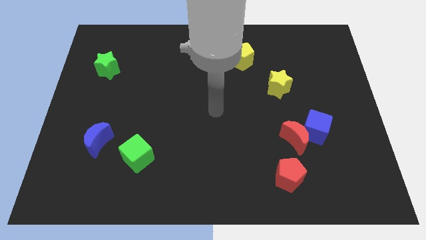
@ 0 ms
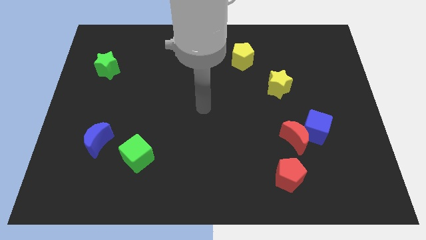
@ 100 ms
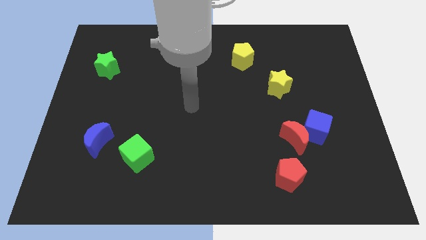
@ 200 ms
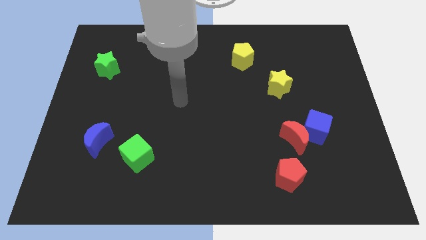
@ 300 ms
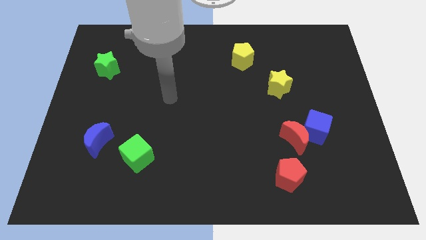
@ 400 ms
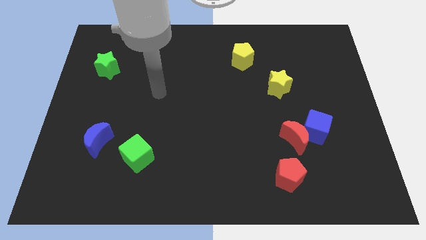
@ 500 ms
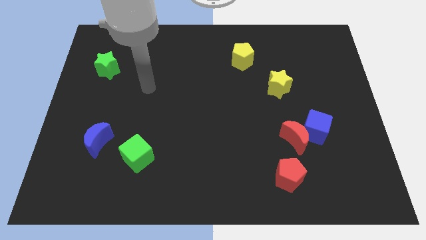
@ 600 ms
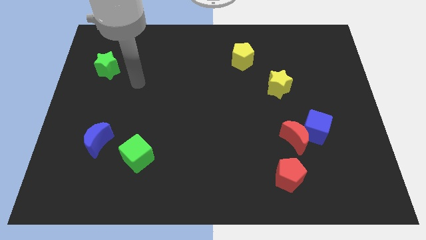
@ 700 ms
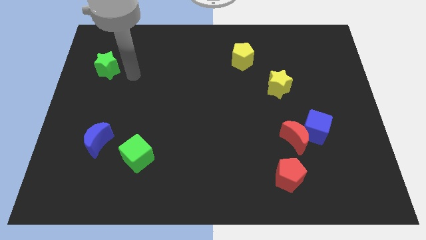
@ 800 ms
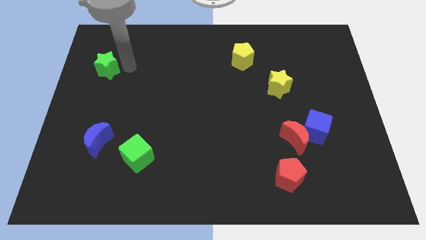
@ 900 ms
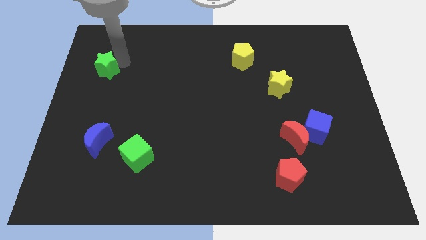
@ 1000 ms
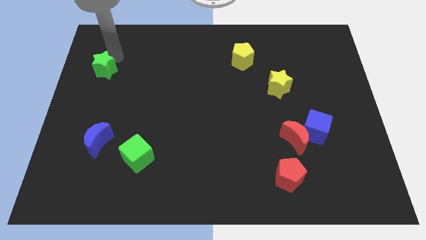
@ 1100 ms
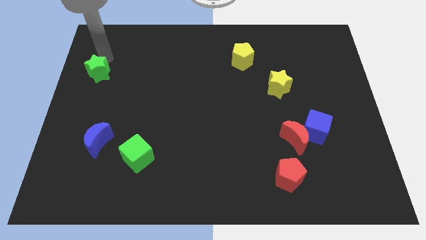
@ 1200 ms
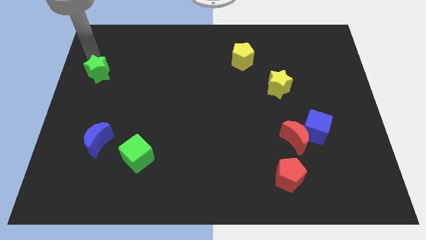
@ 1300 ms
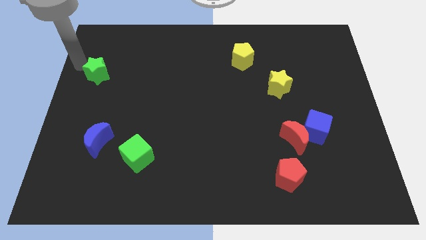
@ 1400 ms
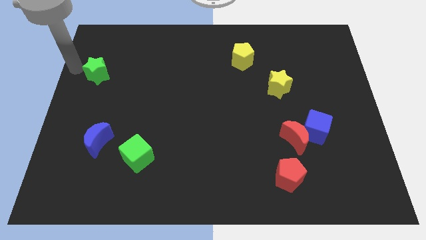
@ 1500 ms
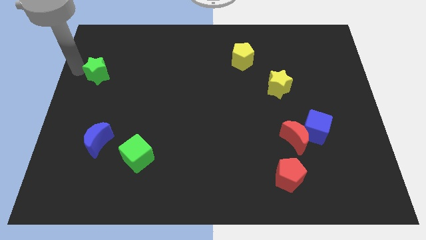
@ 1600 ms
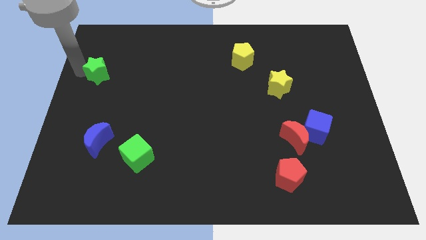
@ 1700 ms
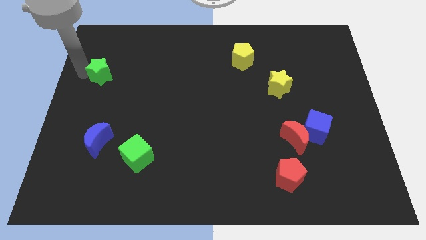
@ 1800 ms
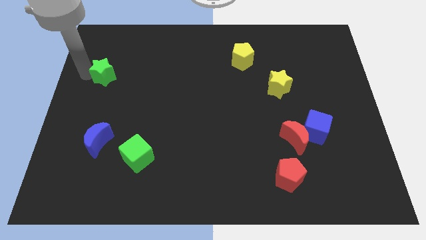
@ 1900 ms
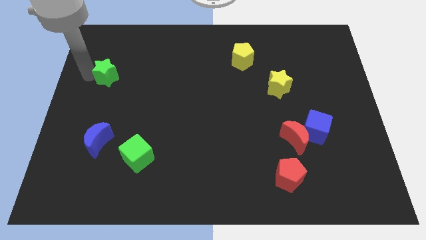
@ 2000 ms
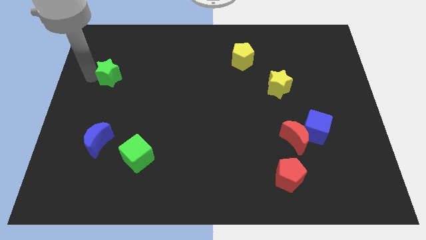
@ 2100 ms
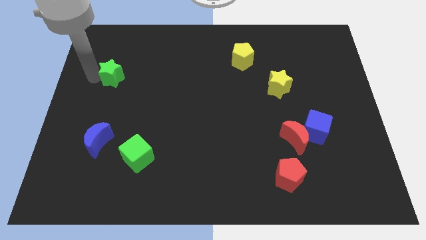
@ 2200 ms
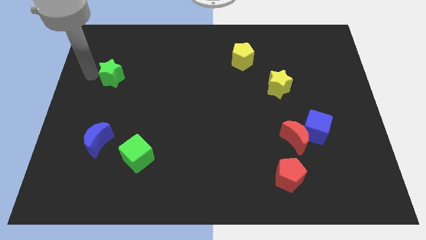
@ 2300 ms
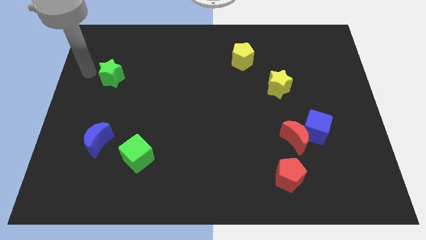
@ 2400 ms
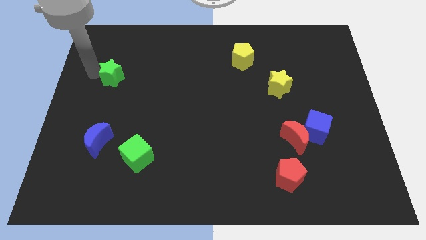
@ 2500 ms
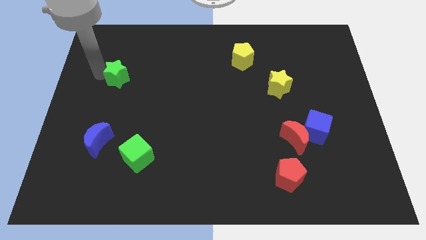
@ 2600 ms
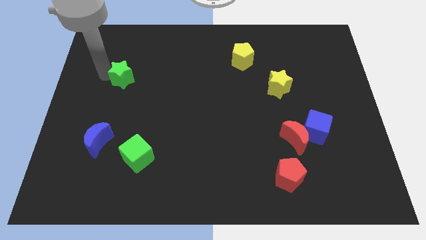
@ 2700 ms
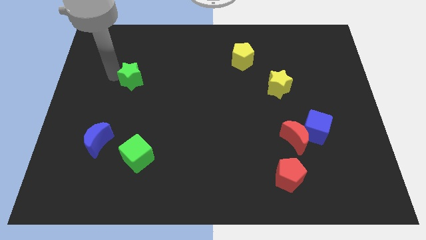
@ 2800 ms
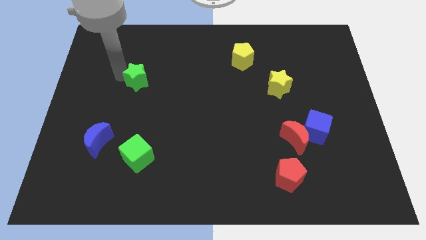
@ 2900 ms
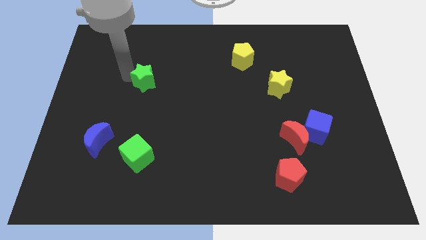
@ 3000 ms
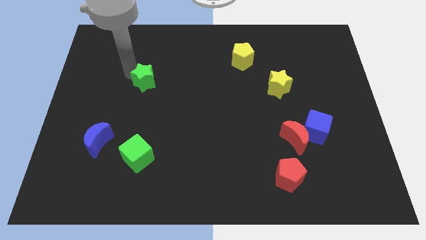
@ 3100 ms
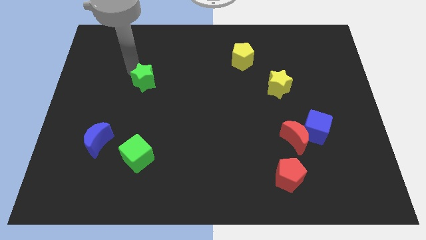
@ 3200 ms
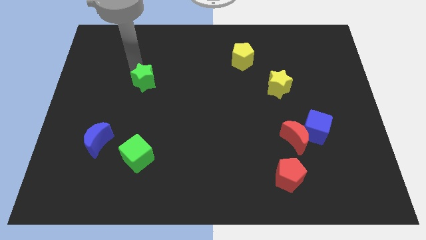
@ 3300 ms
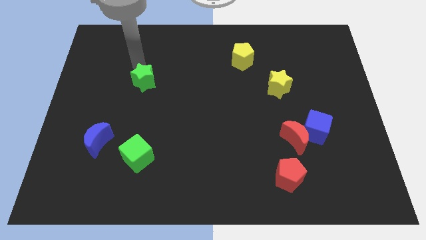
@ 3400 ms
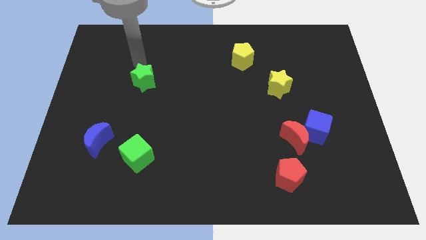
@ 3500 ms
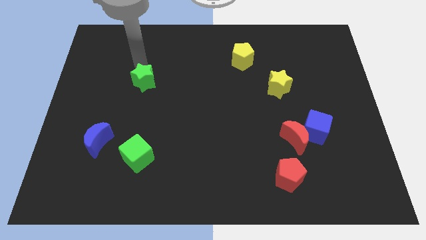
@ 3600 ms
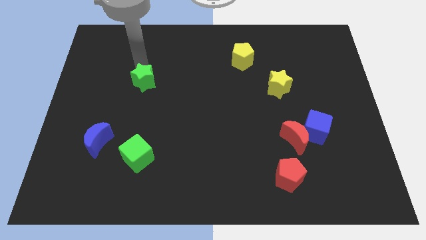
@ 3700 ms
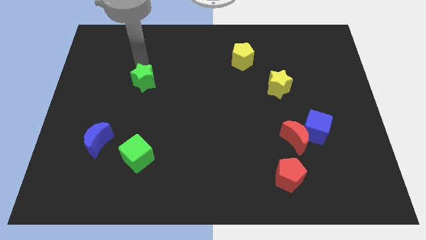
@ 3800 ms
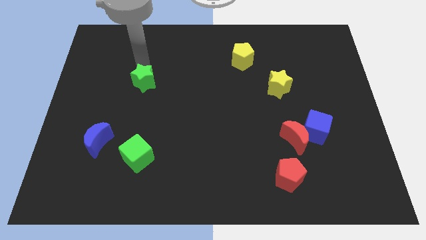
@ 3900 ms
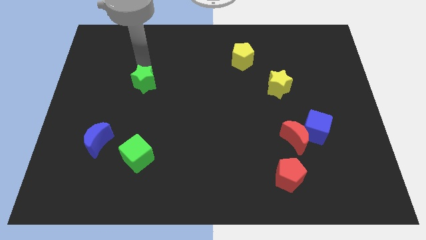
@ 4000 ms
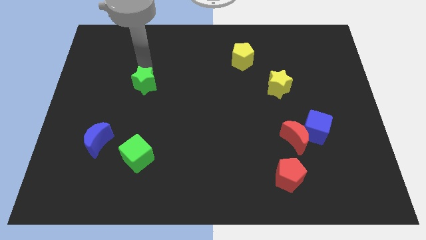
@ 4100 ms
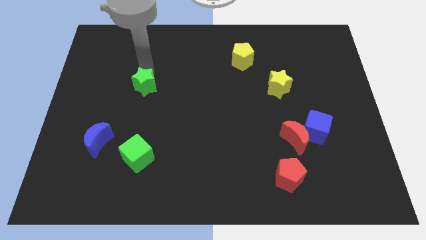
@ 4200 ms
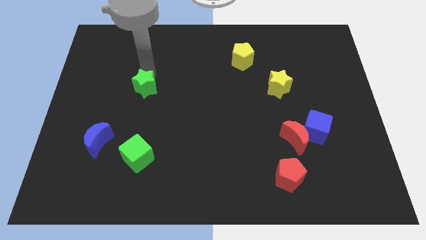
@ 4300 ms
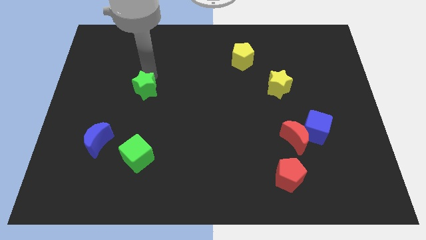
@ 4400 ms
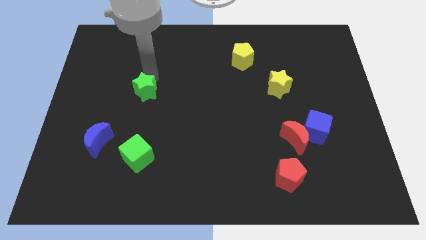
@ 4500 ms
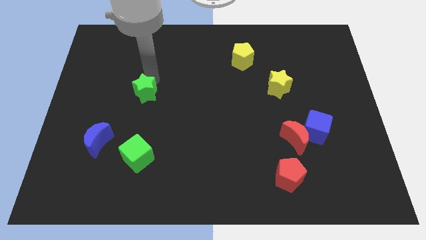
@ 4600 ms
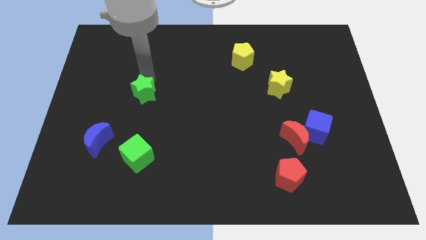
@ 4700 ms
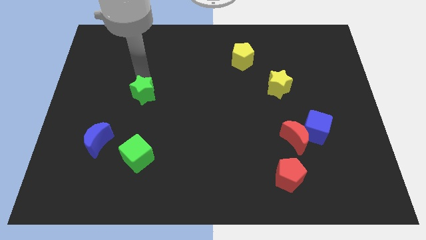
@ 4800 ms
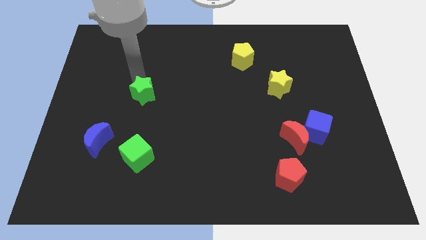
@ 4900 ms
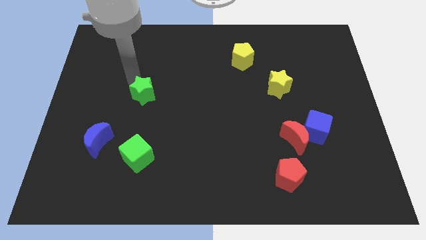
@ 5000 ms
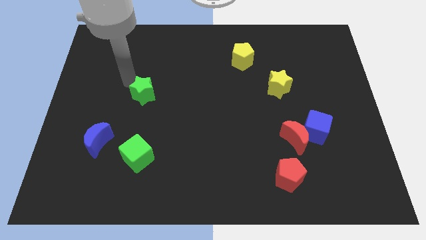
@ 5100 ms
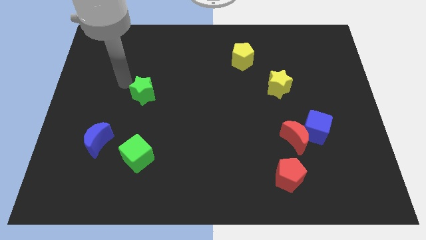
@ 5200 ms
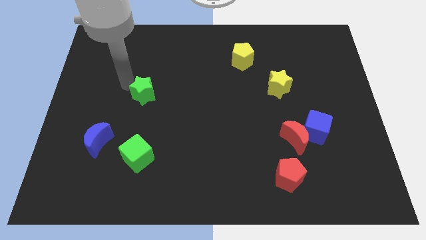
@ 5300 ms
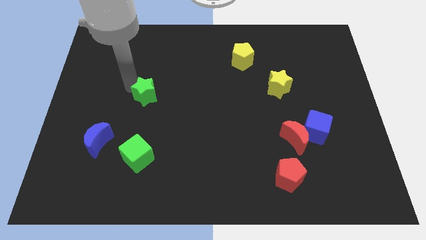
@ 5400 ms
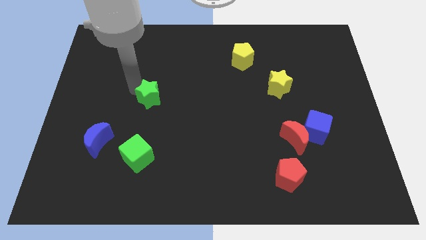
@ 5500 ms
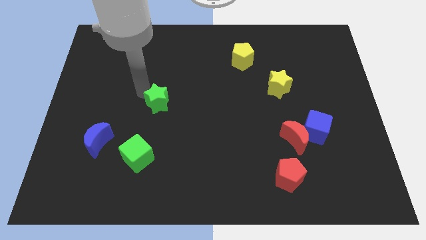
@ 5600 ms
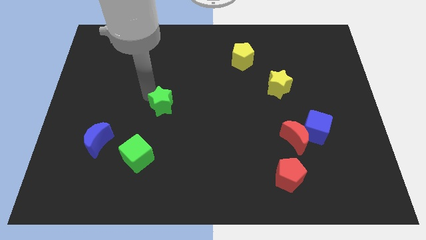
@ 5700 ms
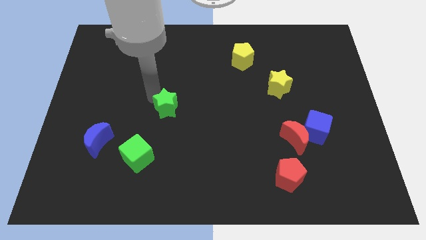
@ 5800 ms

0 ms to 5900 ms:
push the green star down and to the right

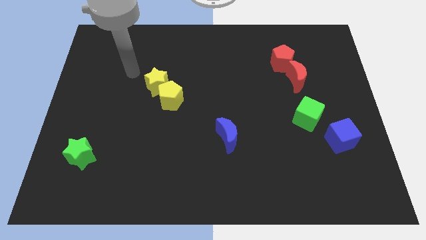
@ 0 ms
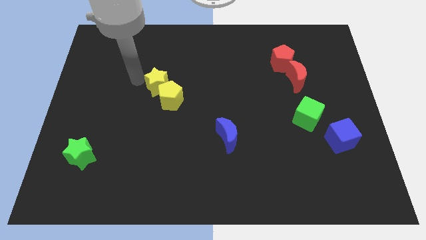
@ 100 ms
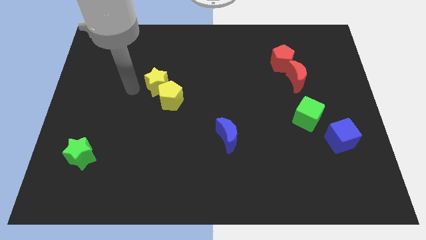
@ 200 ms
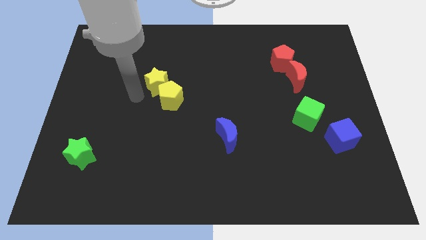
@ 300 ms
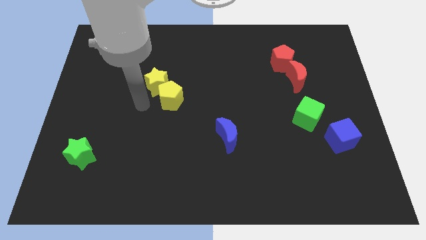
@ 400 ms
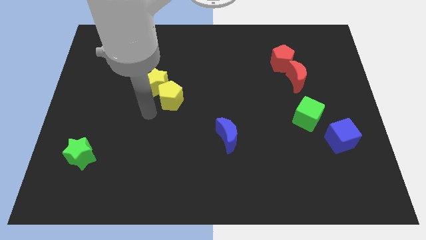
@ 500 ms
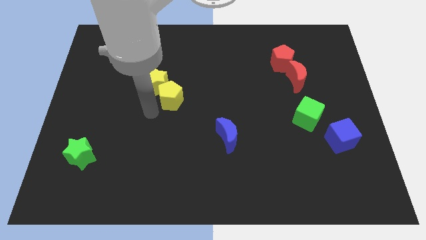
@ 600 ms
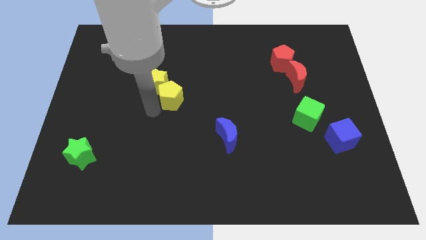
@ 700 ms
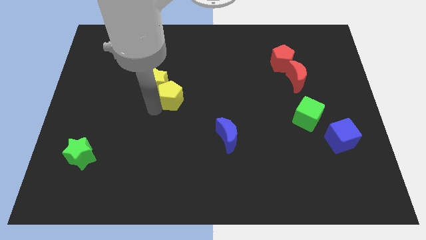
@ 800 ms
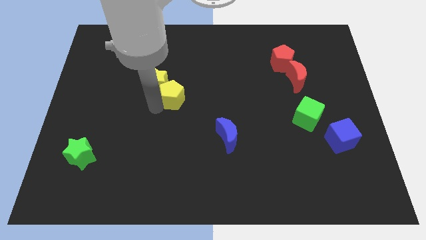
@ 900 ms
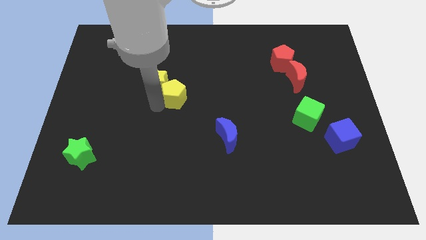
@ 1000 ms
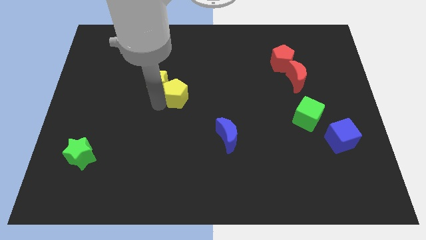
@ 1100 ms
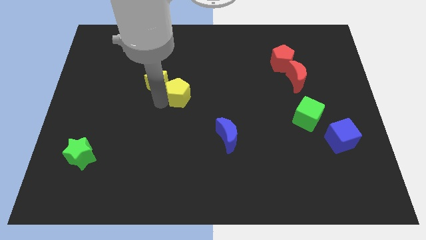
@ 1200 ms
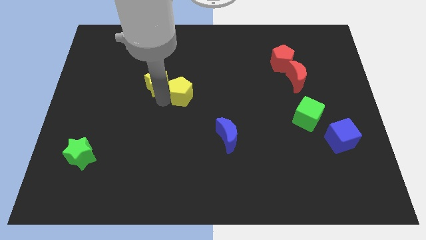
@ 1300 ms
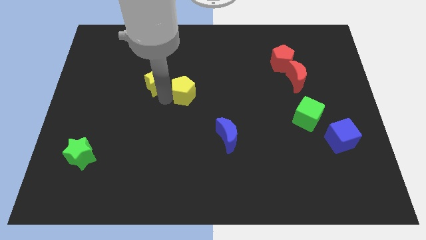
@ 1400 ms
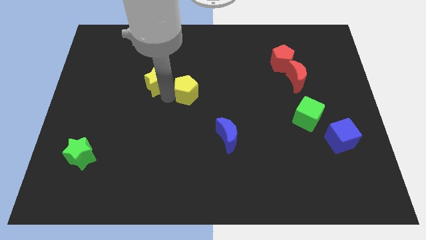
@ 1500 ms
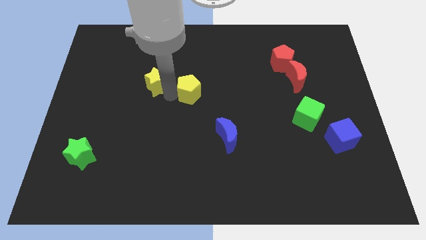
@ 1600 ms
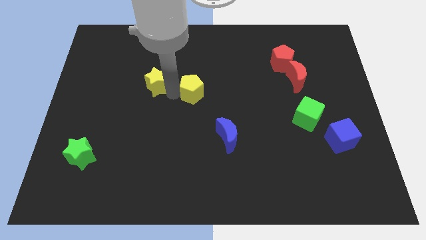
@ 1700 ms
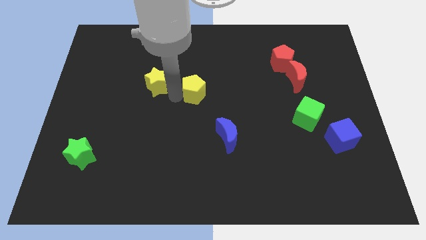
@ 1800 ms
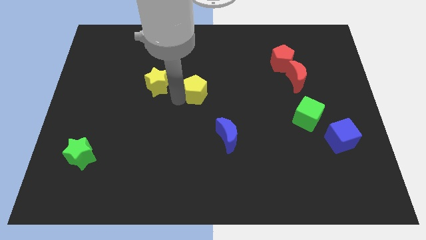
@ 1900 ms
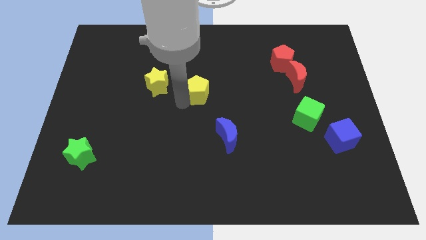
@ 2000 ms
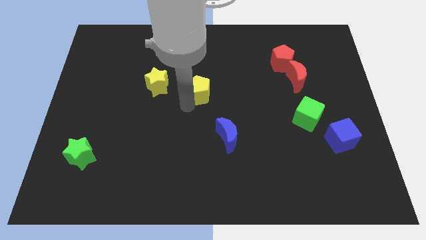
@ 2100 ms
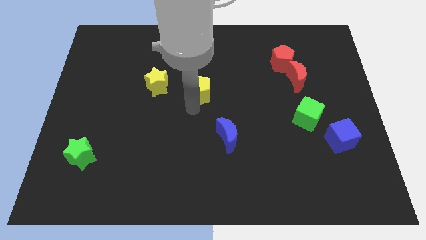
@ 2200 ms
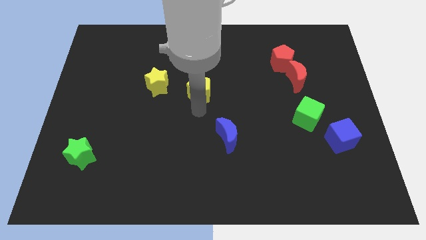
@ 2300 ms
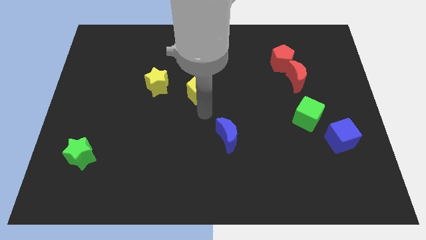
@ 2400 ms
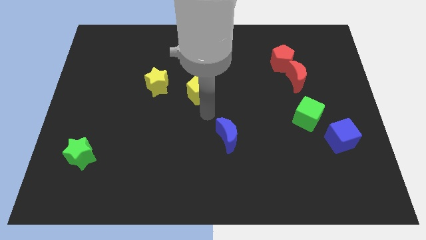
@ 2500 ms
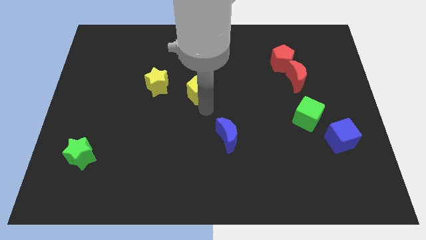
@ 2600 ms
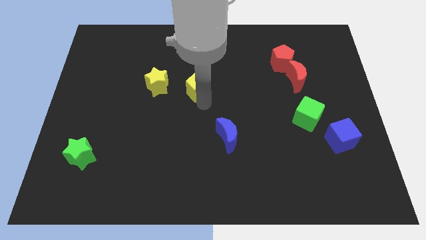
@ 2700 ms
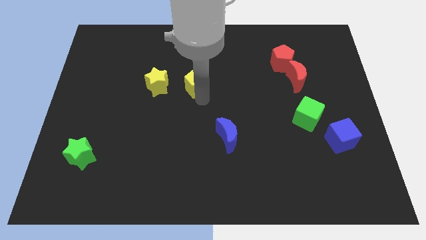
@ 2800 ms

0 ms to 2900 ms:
push the yellow pentagon upwards and to the right diagonally slightly
